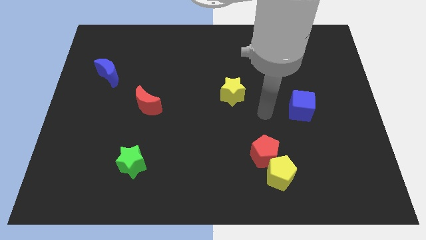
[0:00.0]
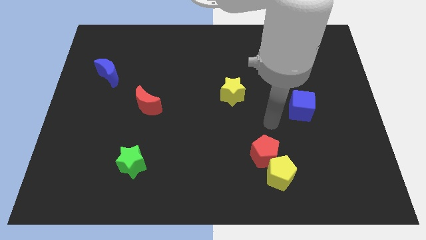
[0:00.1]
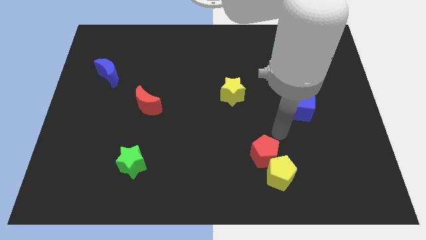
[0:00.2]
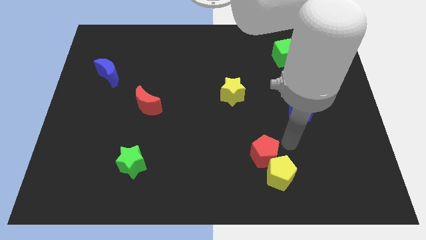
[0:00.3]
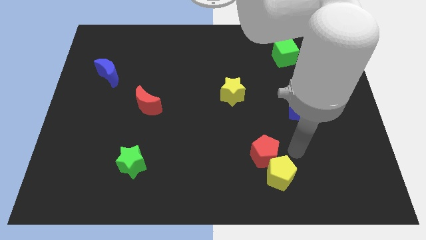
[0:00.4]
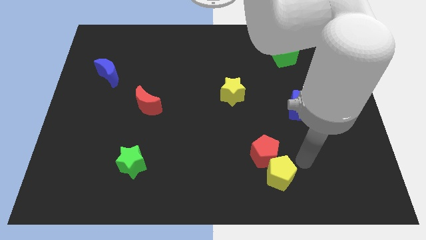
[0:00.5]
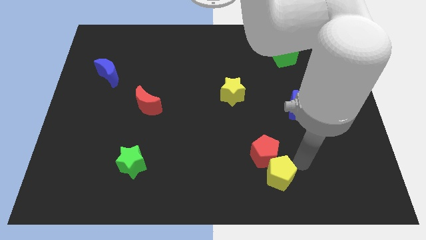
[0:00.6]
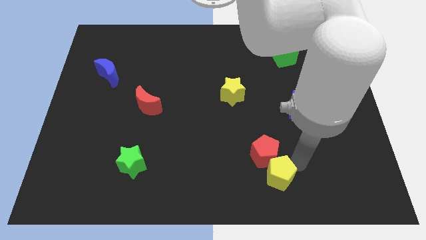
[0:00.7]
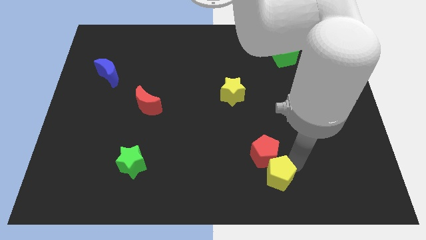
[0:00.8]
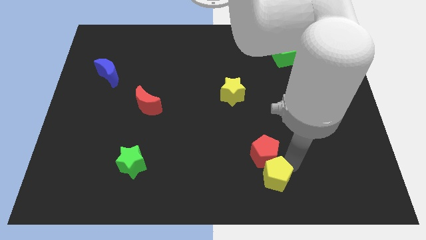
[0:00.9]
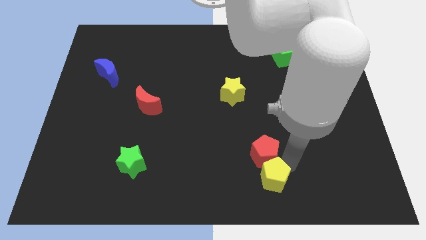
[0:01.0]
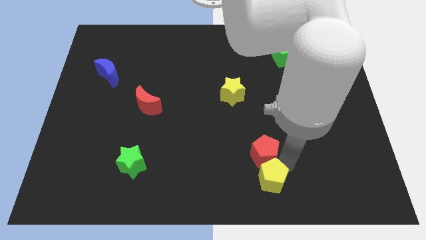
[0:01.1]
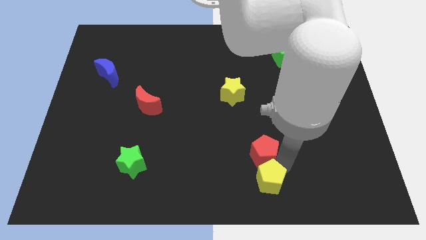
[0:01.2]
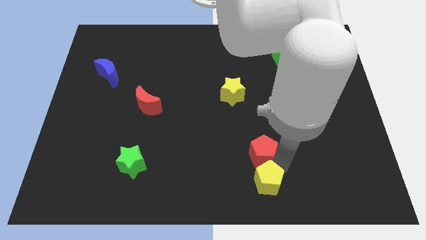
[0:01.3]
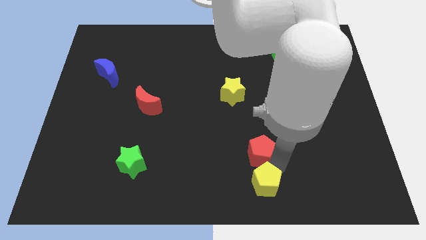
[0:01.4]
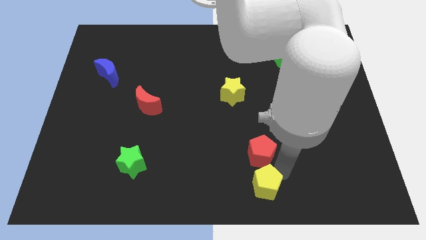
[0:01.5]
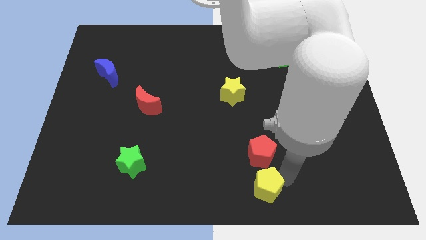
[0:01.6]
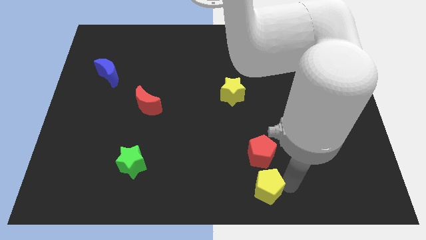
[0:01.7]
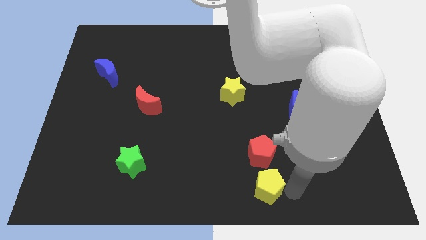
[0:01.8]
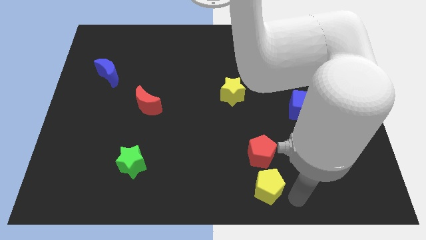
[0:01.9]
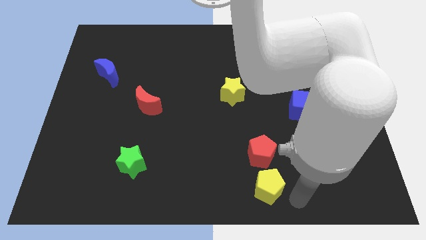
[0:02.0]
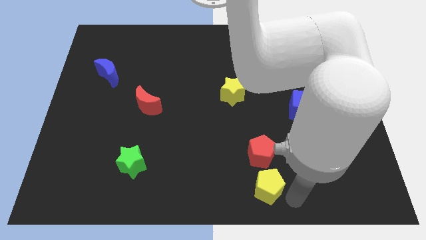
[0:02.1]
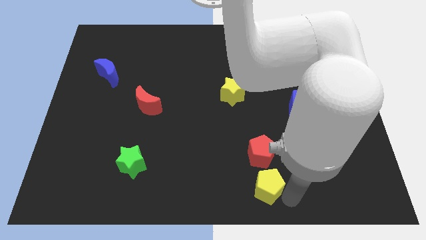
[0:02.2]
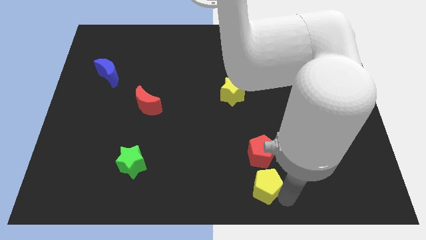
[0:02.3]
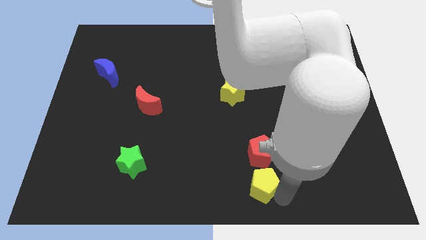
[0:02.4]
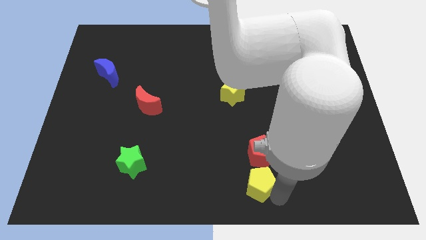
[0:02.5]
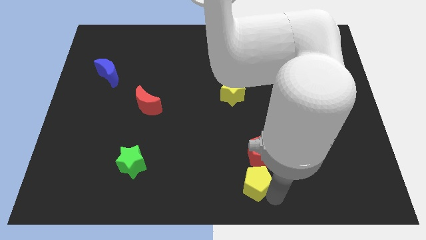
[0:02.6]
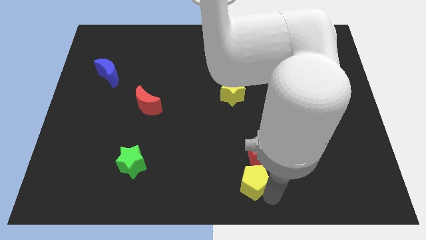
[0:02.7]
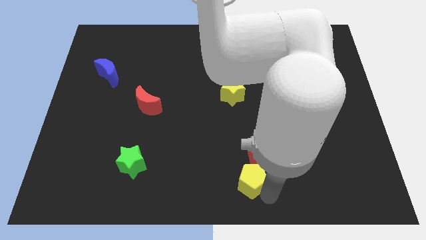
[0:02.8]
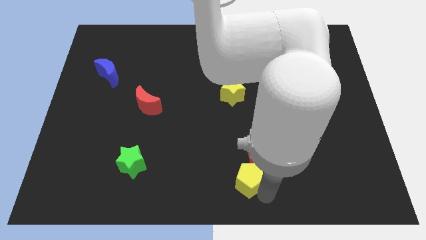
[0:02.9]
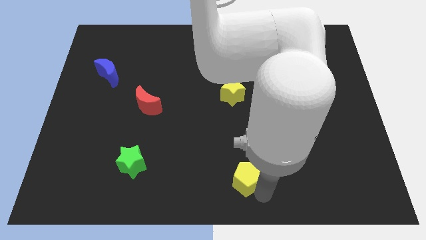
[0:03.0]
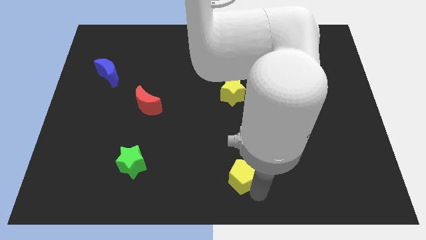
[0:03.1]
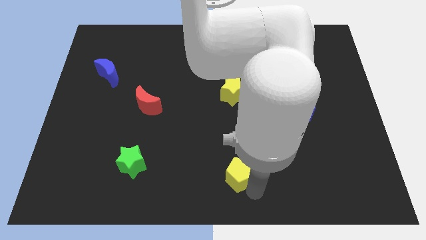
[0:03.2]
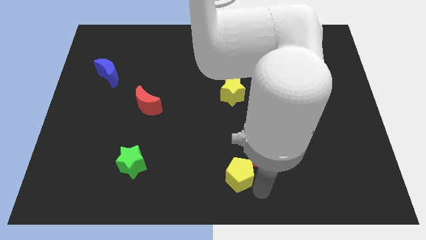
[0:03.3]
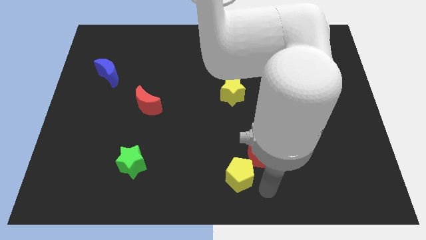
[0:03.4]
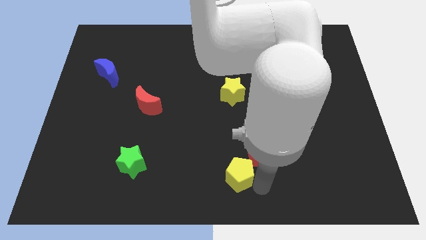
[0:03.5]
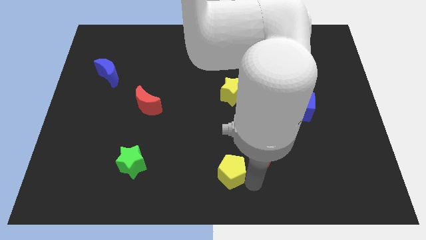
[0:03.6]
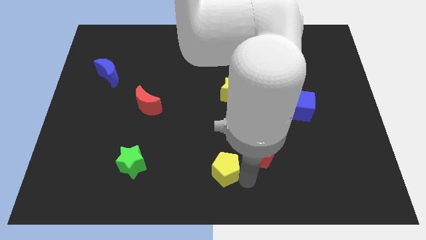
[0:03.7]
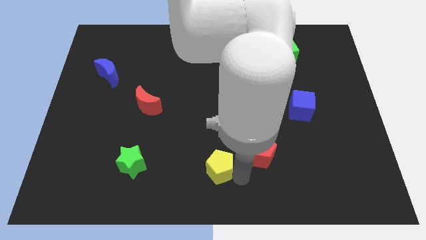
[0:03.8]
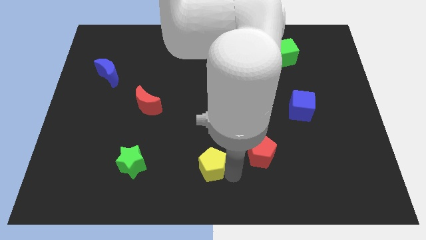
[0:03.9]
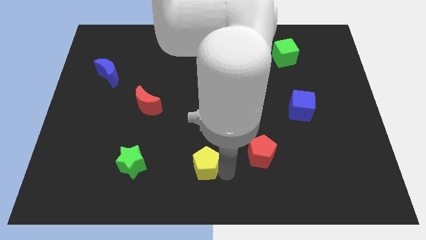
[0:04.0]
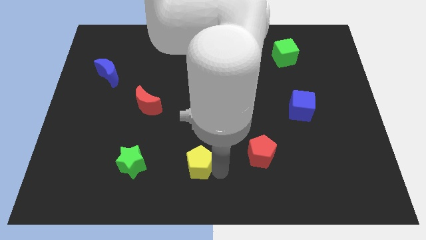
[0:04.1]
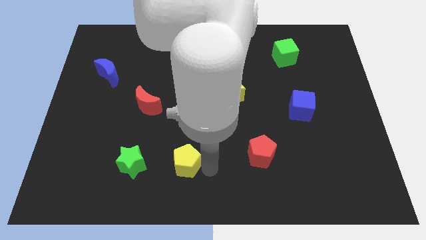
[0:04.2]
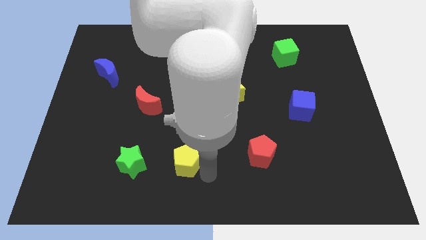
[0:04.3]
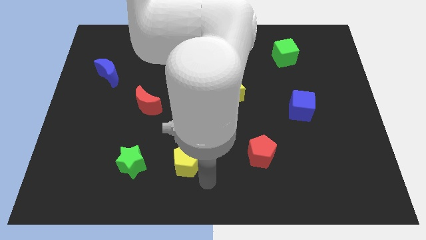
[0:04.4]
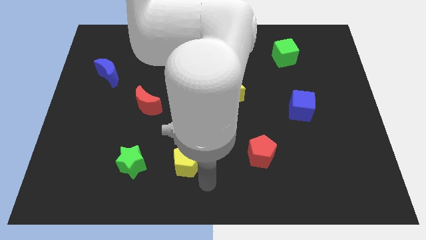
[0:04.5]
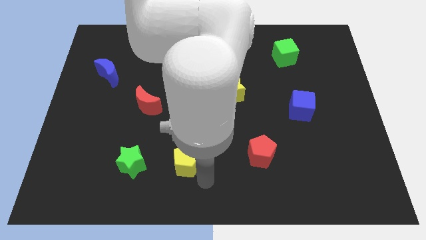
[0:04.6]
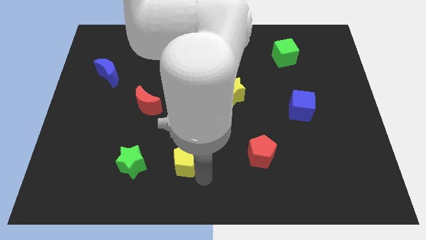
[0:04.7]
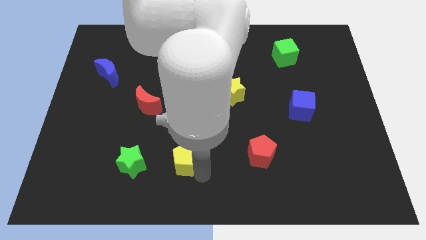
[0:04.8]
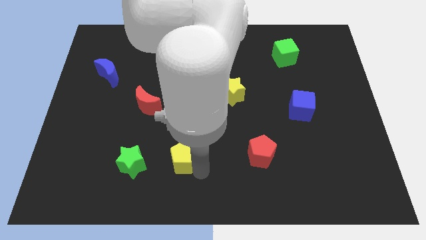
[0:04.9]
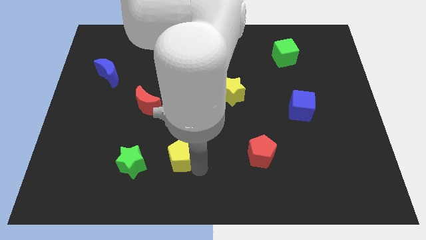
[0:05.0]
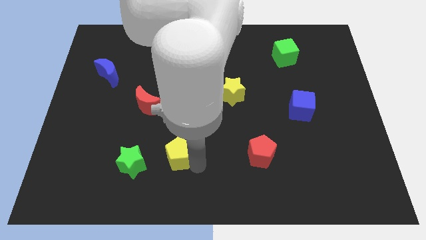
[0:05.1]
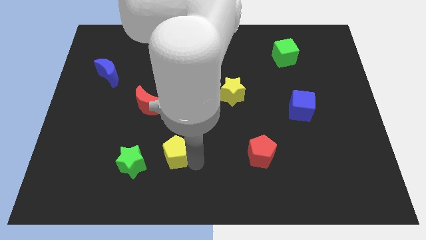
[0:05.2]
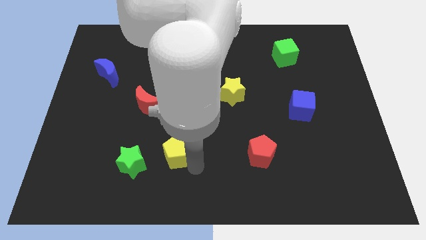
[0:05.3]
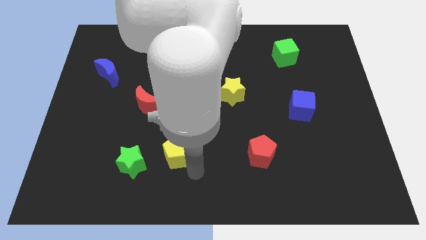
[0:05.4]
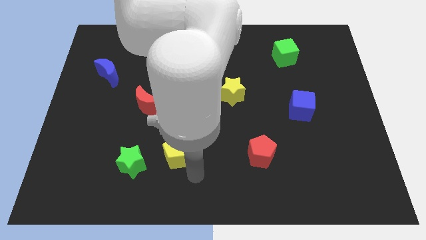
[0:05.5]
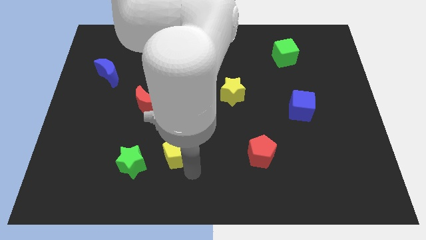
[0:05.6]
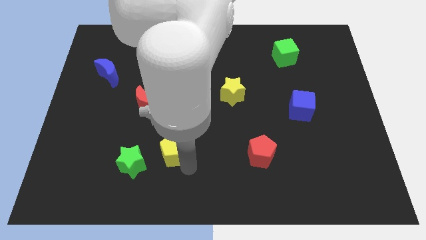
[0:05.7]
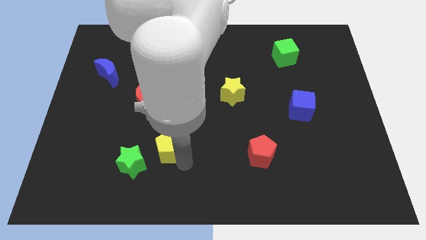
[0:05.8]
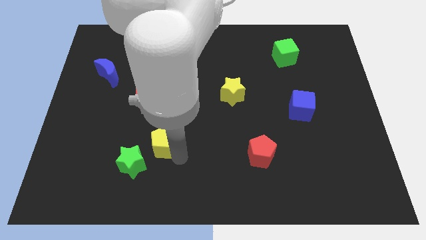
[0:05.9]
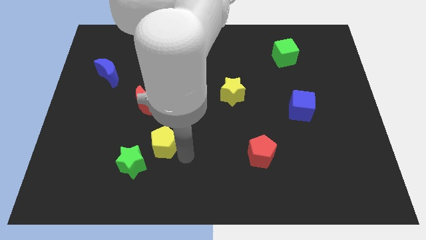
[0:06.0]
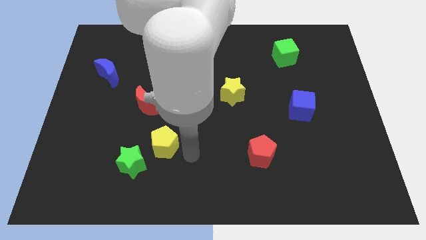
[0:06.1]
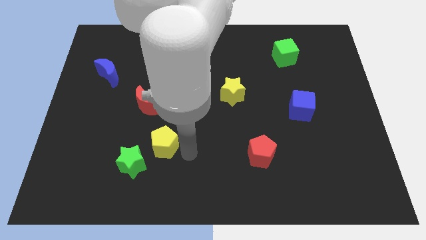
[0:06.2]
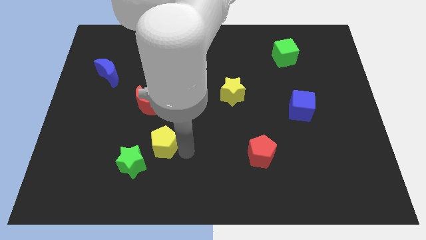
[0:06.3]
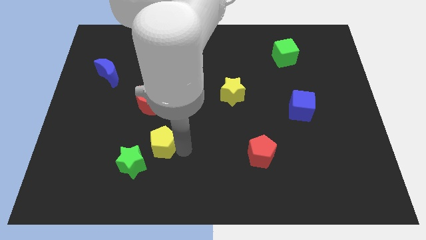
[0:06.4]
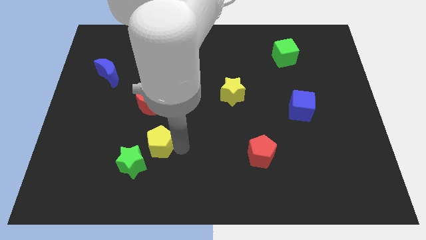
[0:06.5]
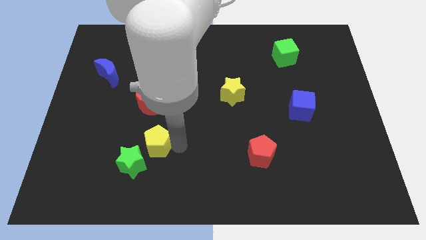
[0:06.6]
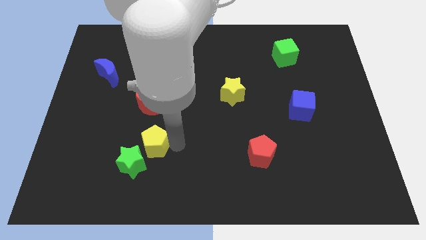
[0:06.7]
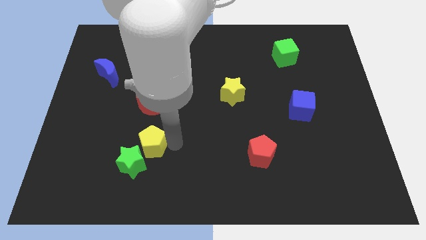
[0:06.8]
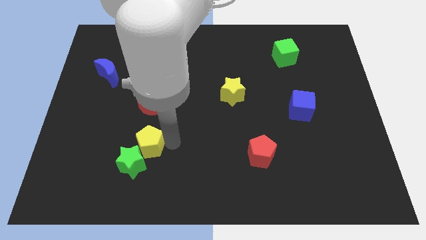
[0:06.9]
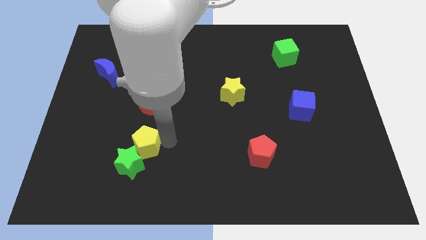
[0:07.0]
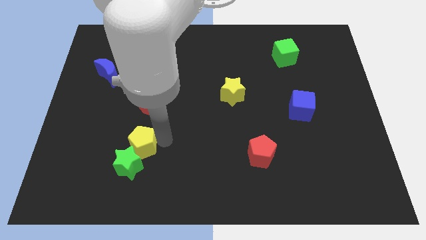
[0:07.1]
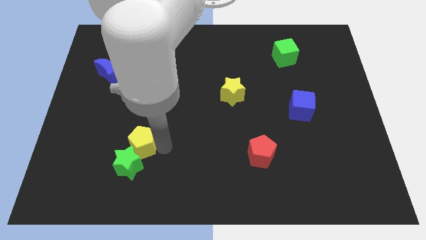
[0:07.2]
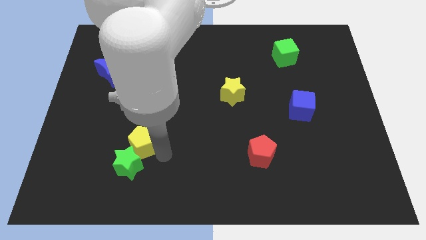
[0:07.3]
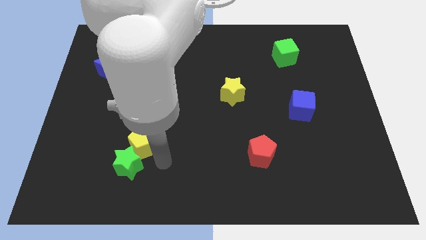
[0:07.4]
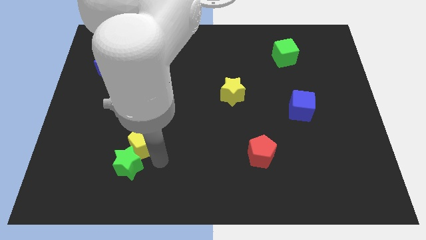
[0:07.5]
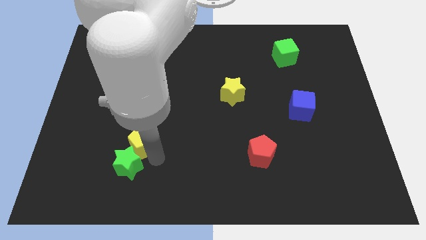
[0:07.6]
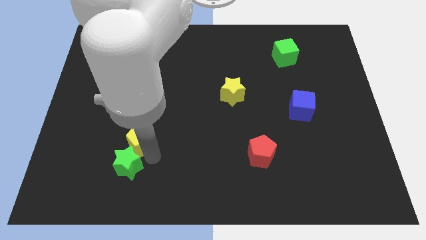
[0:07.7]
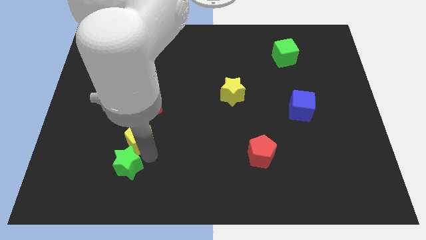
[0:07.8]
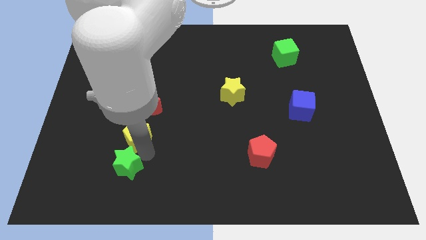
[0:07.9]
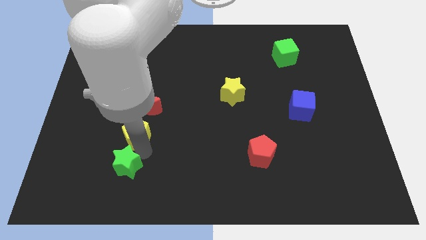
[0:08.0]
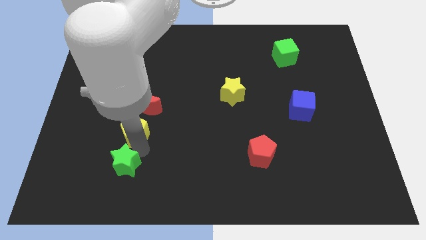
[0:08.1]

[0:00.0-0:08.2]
slide the yellow pentagon to the bottom left side of the red moon
